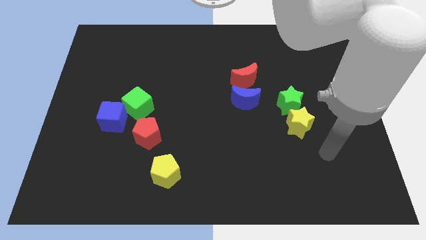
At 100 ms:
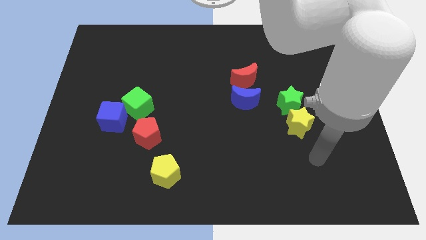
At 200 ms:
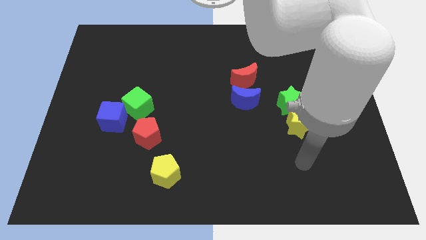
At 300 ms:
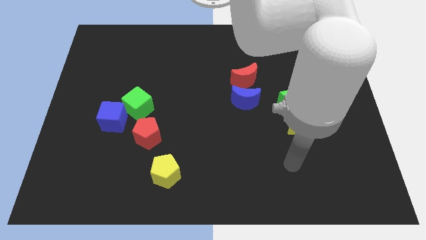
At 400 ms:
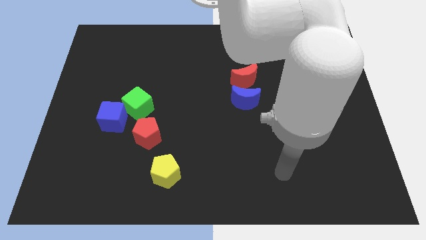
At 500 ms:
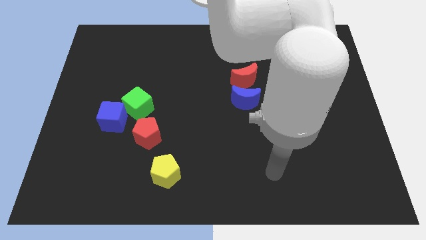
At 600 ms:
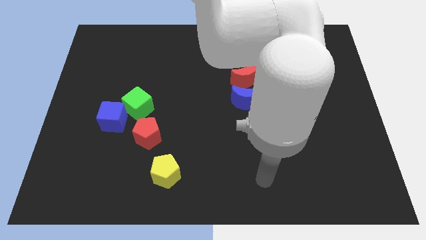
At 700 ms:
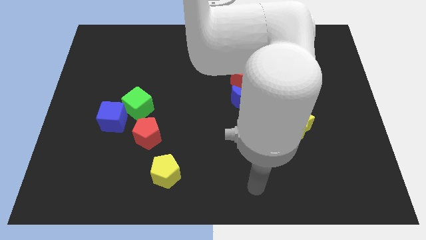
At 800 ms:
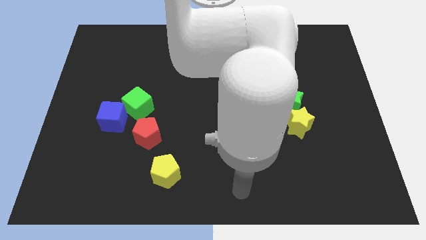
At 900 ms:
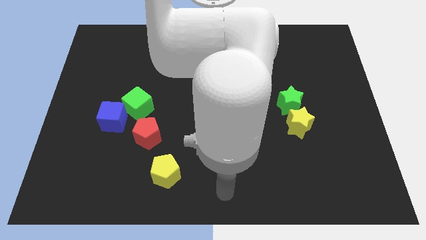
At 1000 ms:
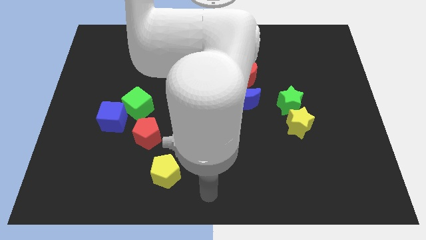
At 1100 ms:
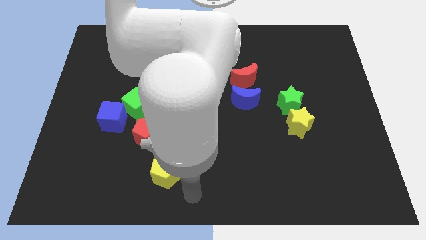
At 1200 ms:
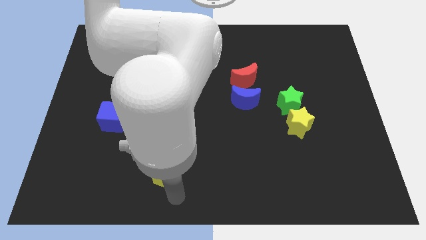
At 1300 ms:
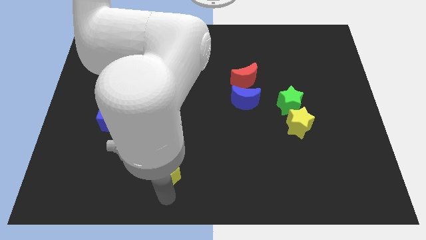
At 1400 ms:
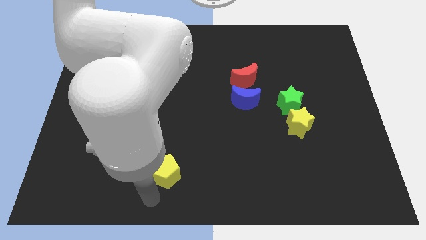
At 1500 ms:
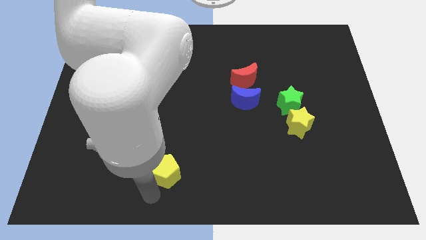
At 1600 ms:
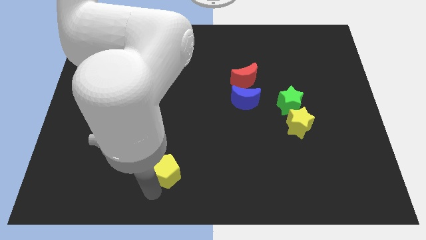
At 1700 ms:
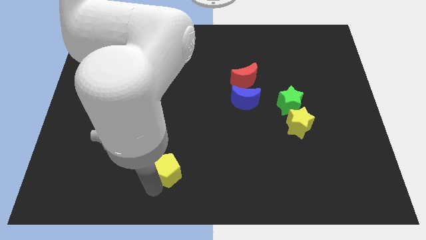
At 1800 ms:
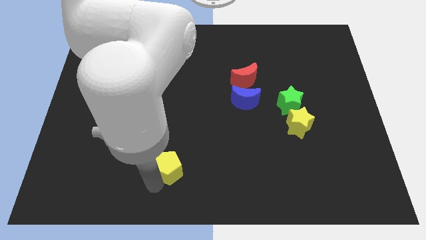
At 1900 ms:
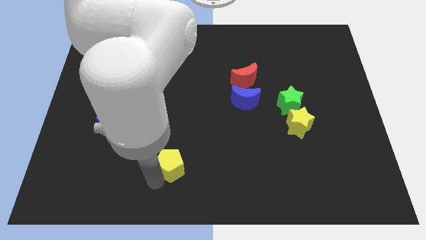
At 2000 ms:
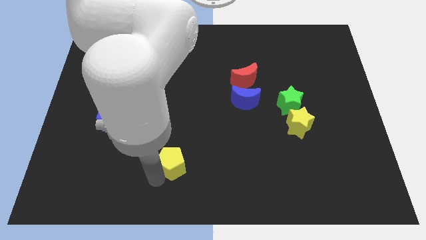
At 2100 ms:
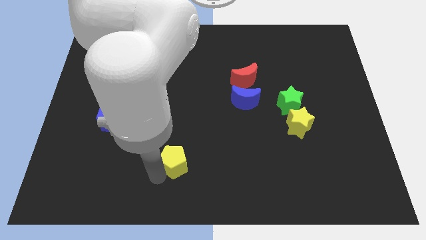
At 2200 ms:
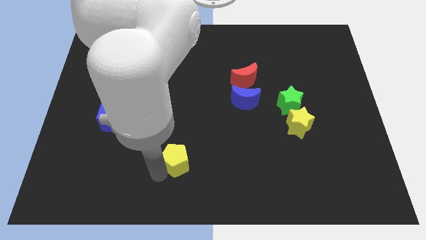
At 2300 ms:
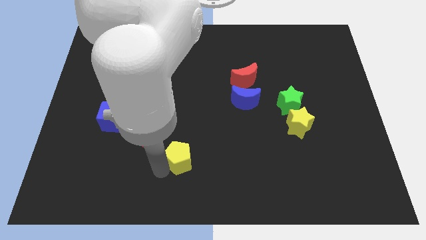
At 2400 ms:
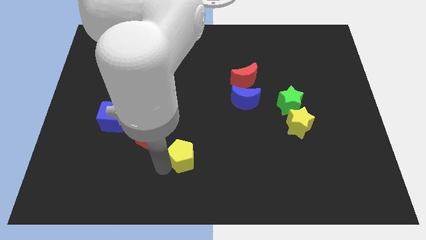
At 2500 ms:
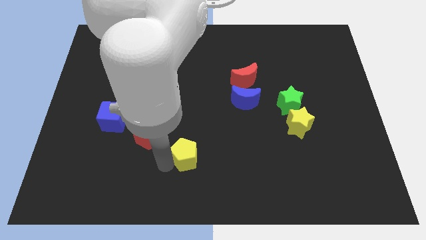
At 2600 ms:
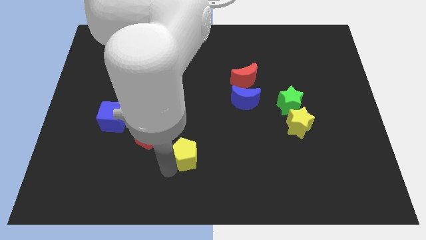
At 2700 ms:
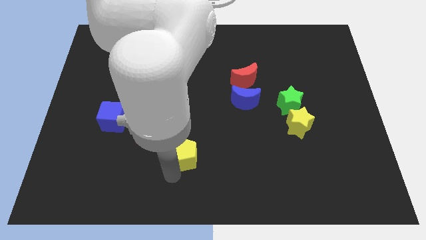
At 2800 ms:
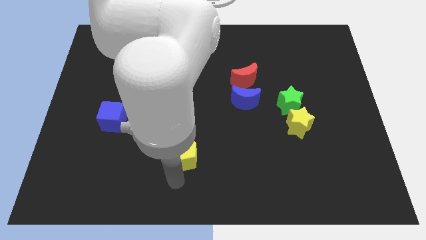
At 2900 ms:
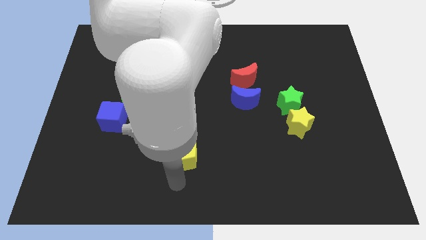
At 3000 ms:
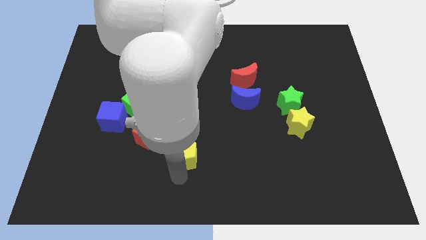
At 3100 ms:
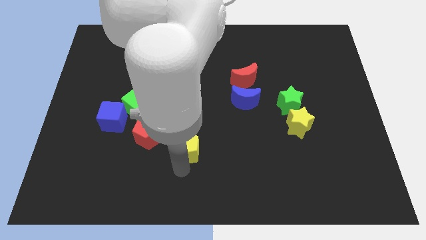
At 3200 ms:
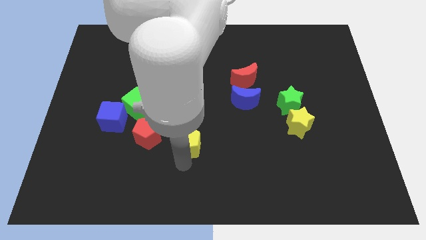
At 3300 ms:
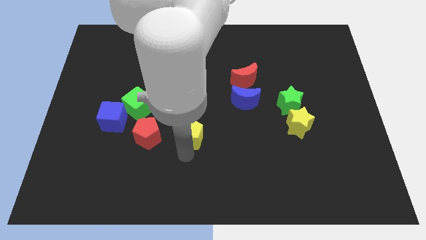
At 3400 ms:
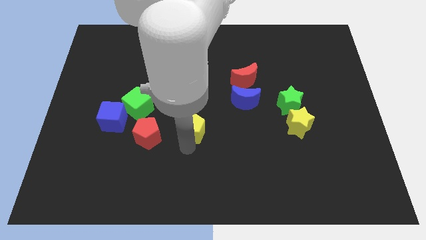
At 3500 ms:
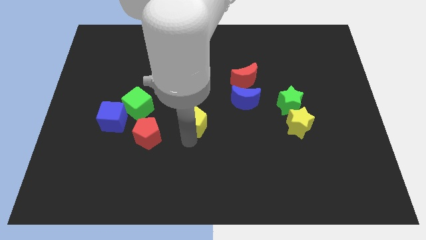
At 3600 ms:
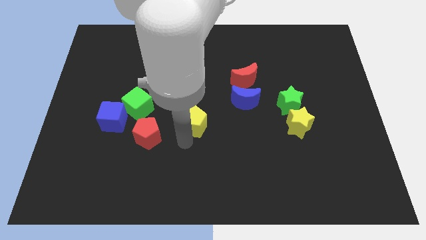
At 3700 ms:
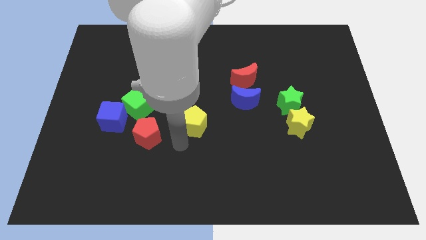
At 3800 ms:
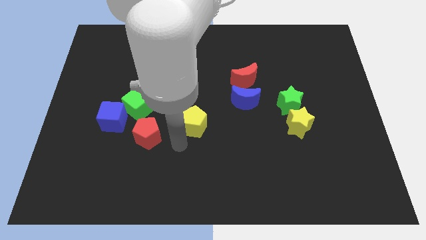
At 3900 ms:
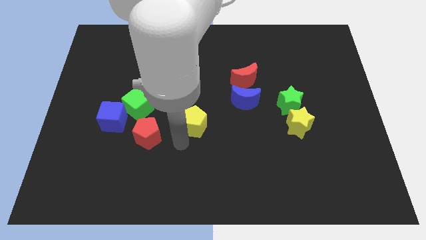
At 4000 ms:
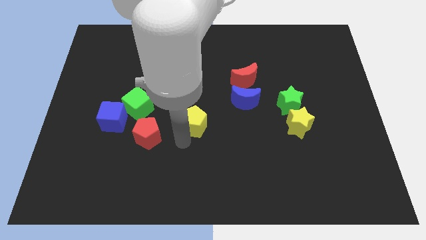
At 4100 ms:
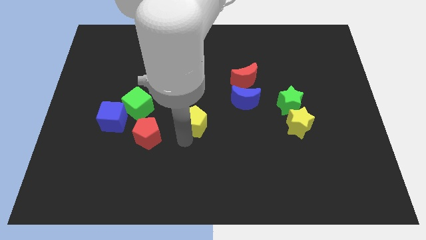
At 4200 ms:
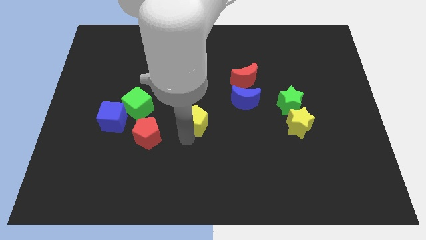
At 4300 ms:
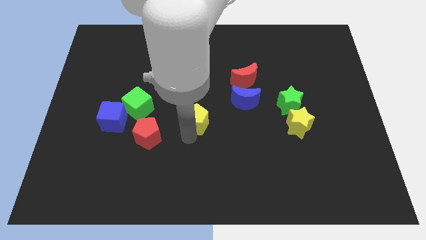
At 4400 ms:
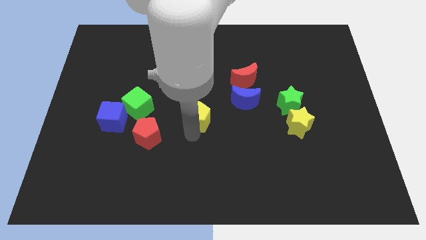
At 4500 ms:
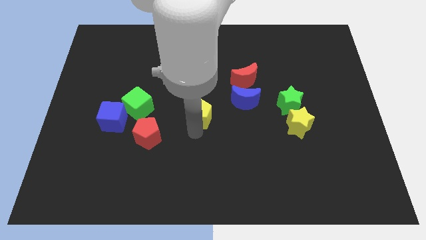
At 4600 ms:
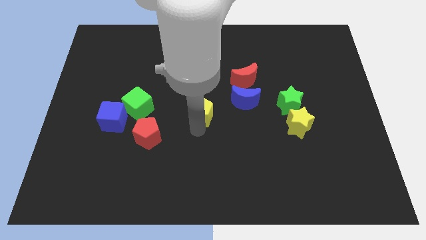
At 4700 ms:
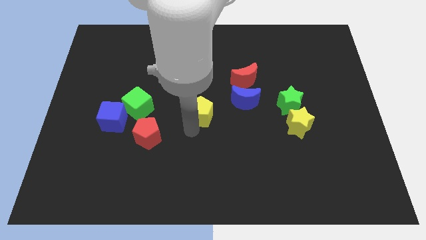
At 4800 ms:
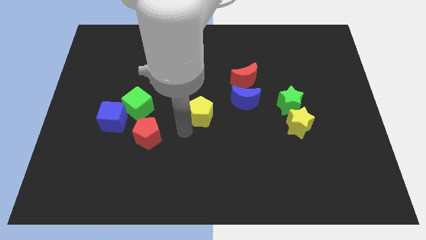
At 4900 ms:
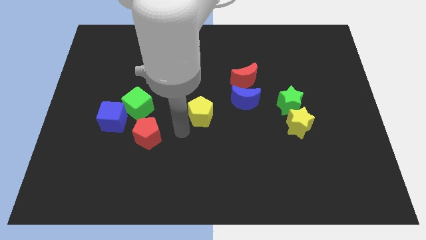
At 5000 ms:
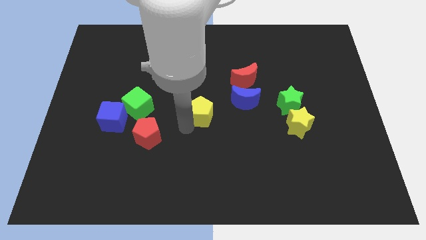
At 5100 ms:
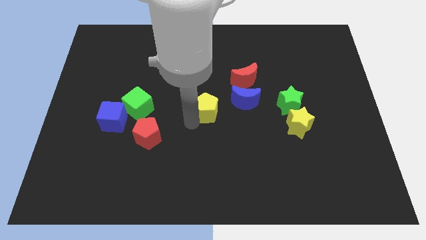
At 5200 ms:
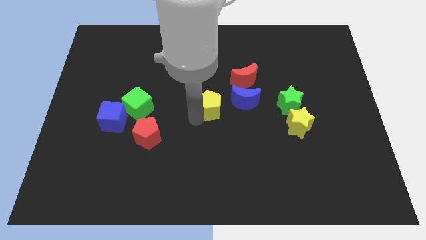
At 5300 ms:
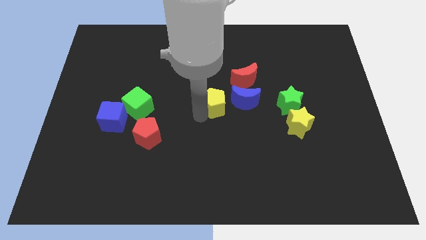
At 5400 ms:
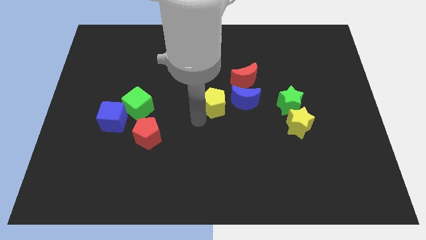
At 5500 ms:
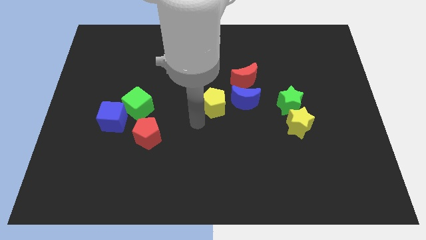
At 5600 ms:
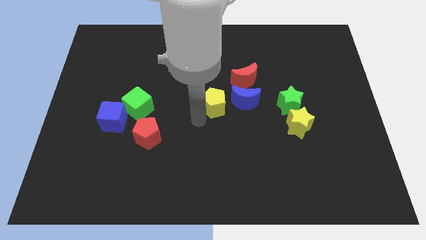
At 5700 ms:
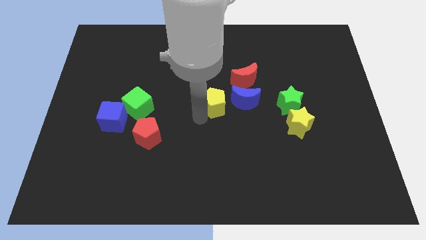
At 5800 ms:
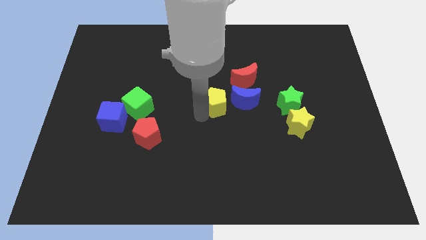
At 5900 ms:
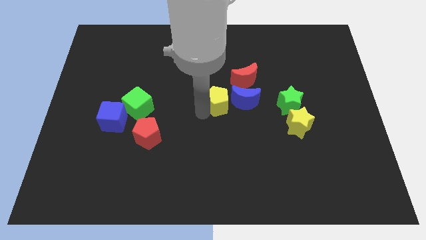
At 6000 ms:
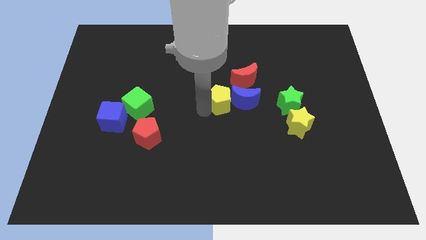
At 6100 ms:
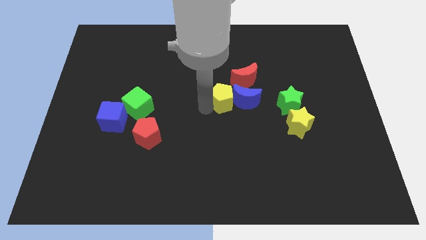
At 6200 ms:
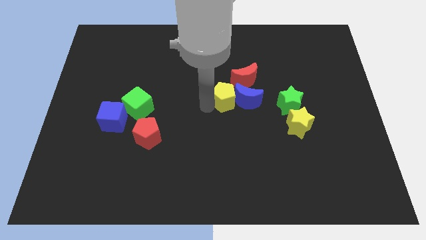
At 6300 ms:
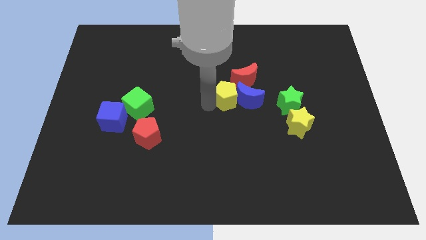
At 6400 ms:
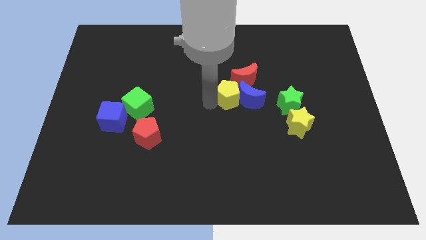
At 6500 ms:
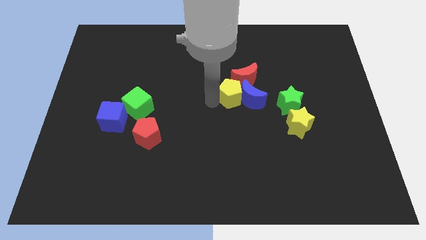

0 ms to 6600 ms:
move the yellow pentagon to the red moon
